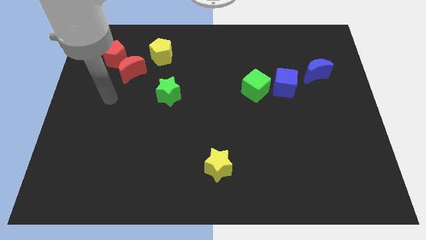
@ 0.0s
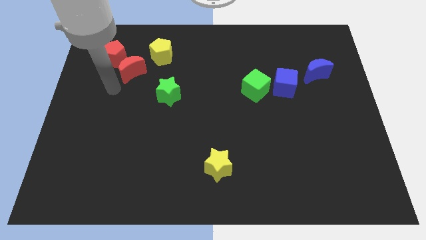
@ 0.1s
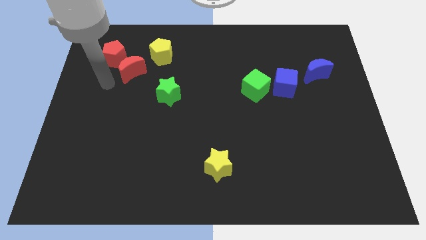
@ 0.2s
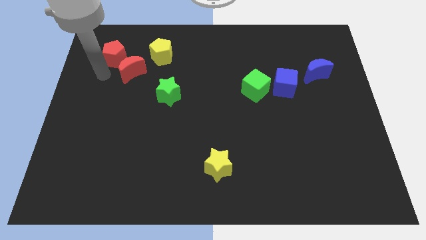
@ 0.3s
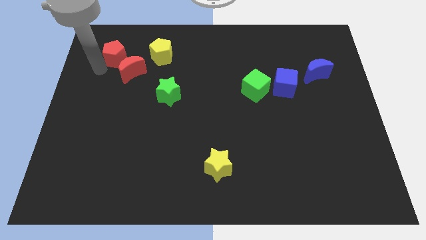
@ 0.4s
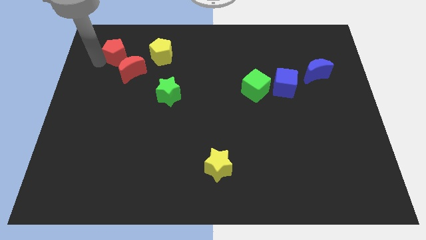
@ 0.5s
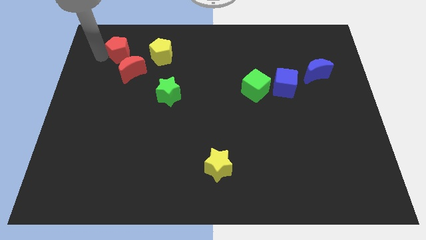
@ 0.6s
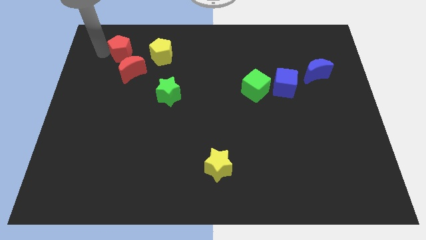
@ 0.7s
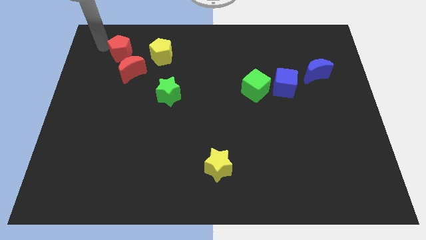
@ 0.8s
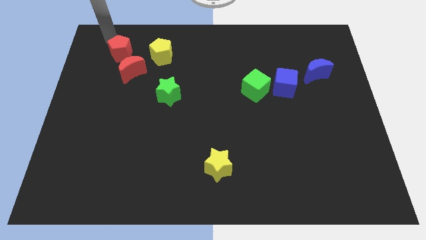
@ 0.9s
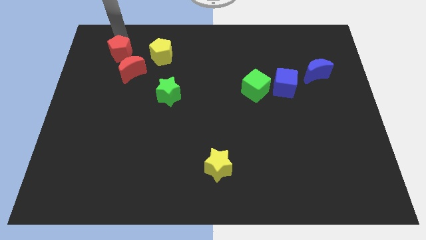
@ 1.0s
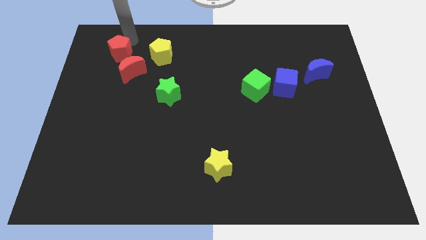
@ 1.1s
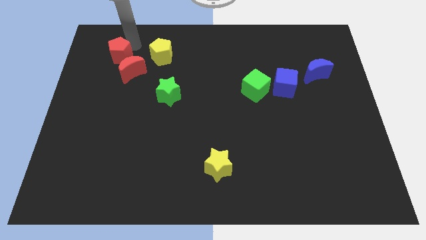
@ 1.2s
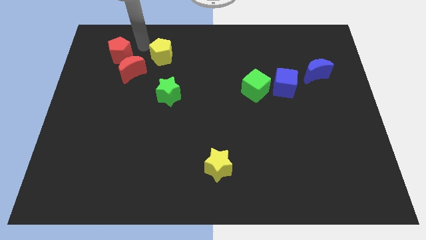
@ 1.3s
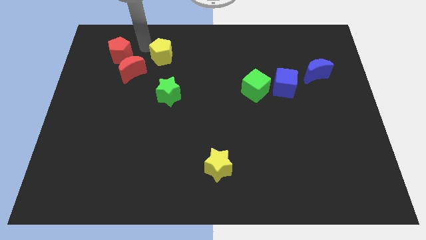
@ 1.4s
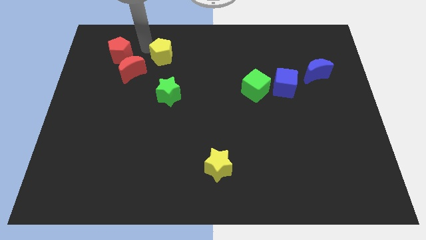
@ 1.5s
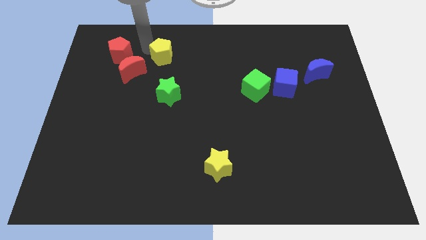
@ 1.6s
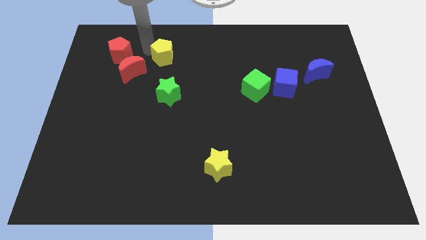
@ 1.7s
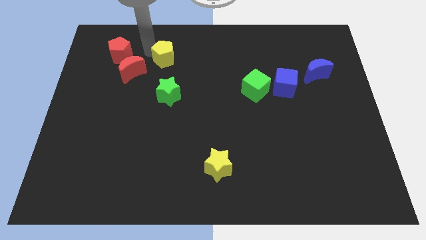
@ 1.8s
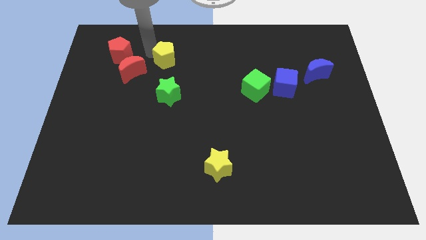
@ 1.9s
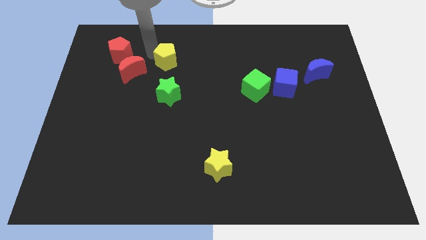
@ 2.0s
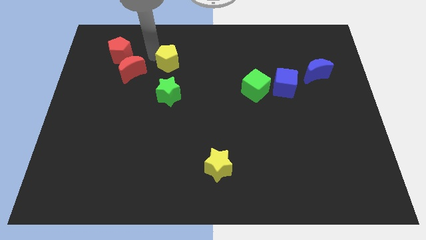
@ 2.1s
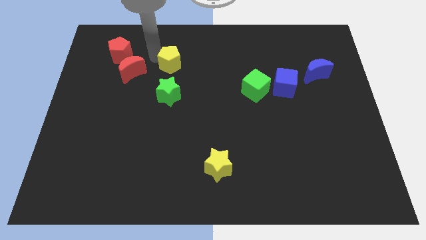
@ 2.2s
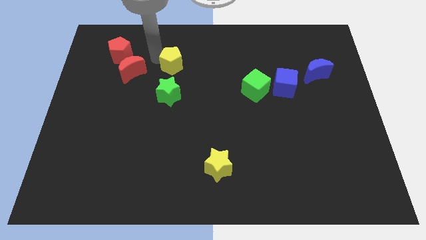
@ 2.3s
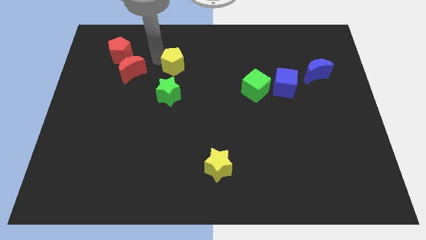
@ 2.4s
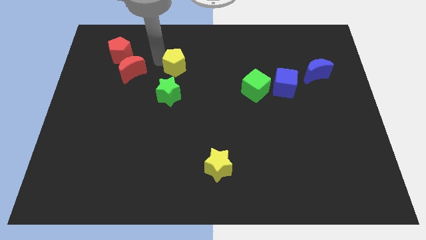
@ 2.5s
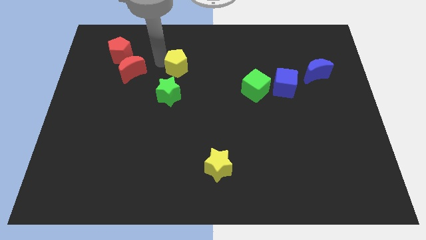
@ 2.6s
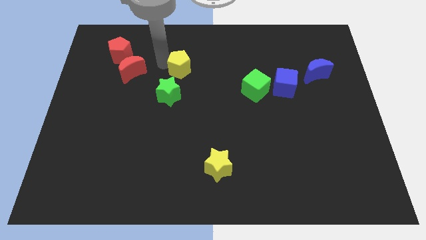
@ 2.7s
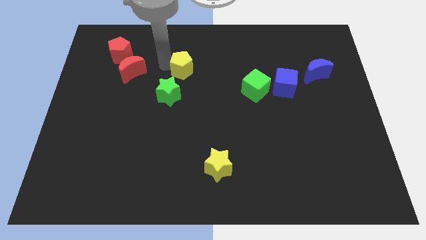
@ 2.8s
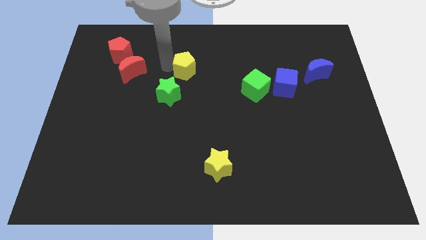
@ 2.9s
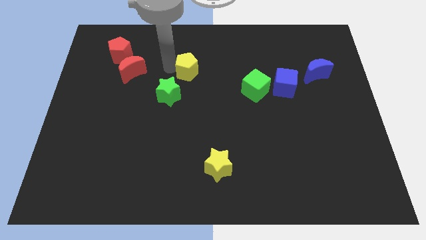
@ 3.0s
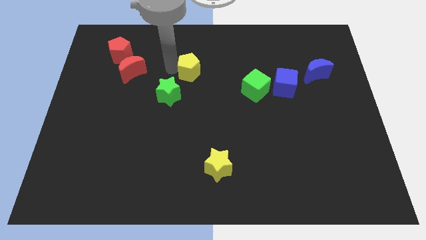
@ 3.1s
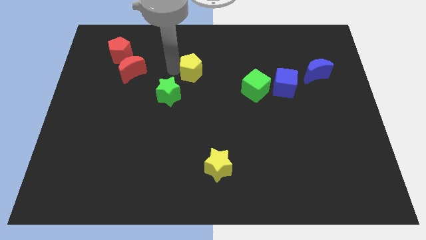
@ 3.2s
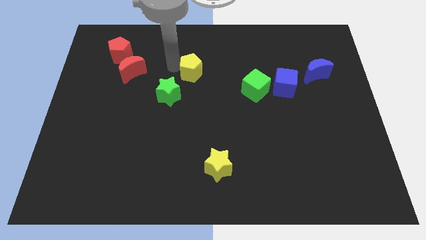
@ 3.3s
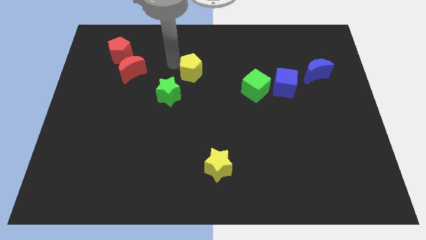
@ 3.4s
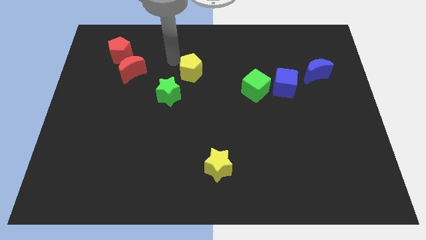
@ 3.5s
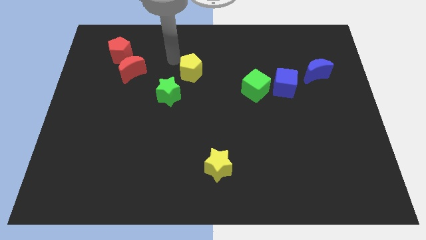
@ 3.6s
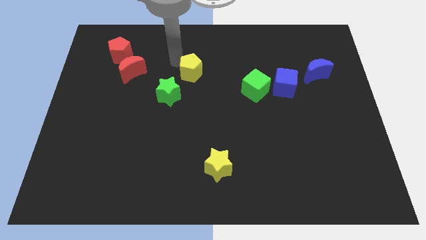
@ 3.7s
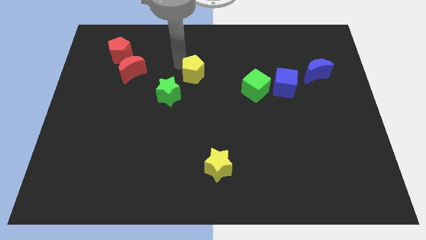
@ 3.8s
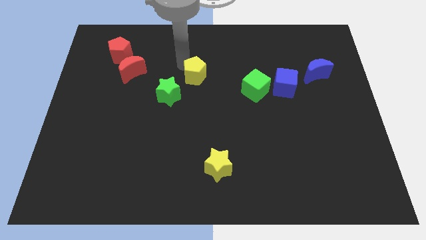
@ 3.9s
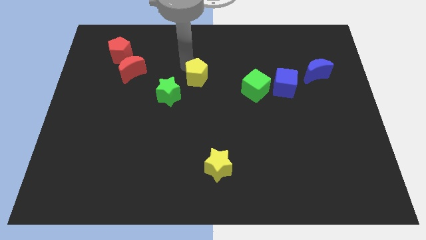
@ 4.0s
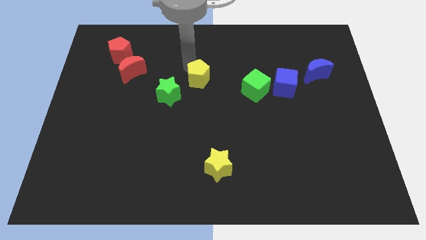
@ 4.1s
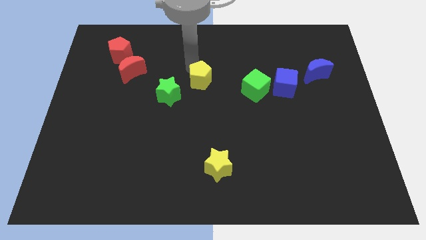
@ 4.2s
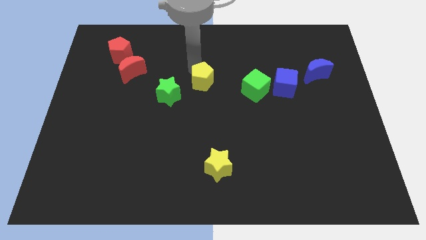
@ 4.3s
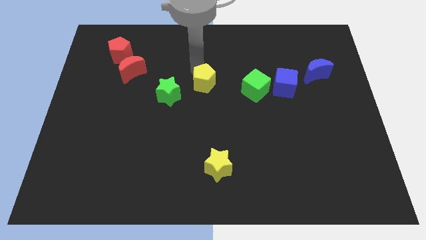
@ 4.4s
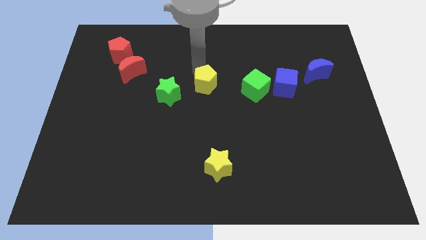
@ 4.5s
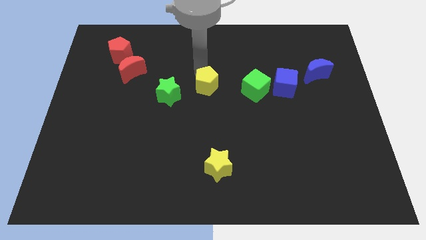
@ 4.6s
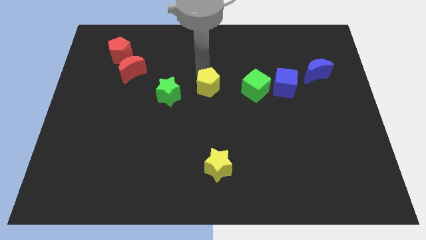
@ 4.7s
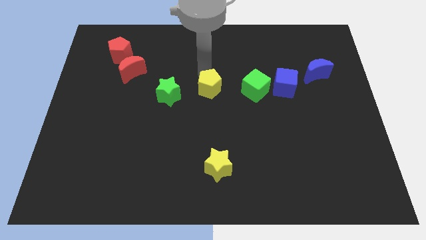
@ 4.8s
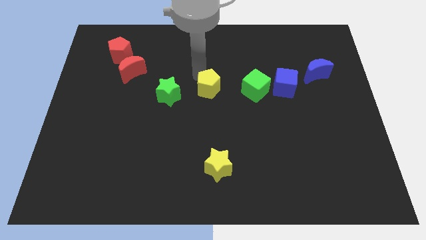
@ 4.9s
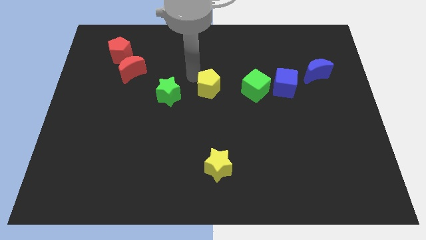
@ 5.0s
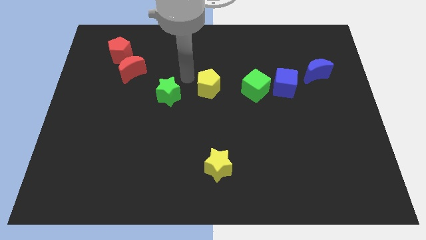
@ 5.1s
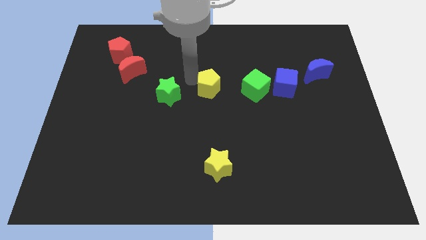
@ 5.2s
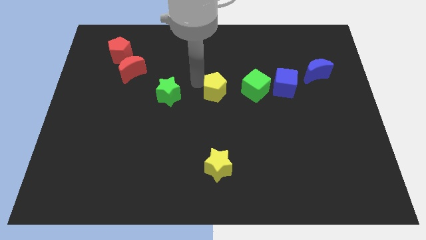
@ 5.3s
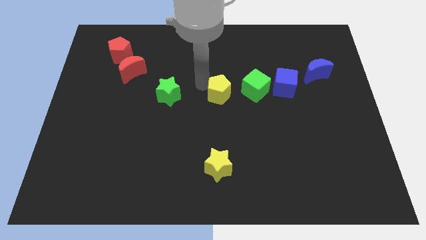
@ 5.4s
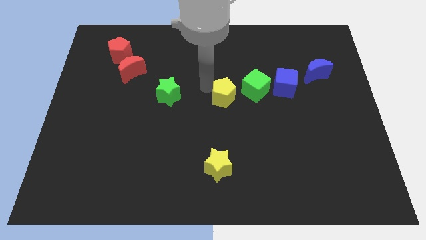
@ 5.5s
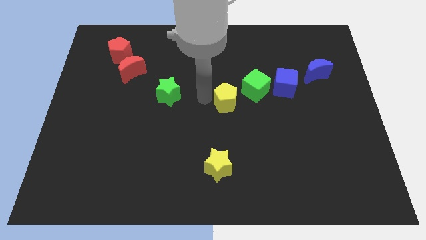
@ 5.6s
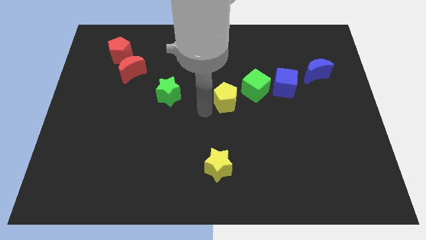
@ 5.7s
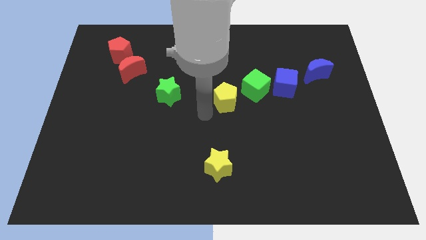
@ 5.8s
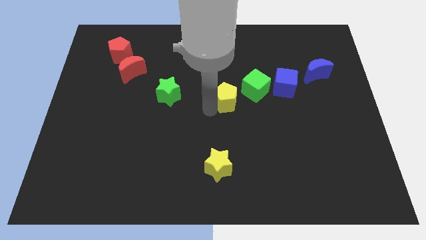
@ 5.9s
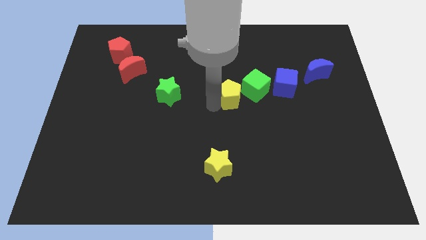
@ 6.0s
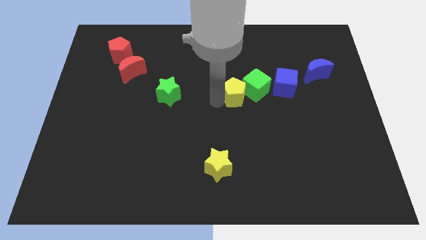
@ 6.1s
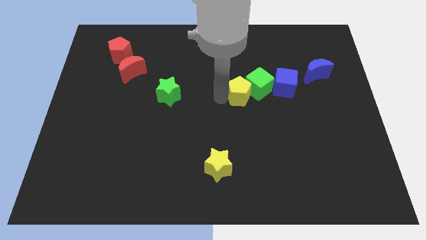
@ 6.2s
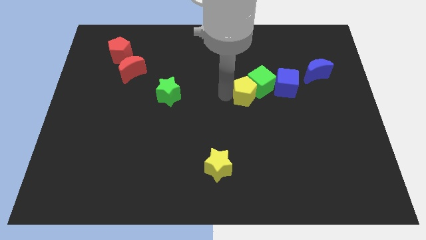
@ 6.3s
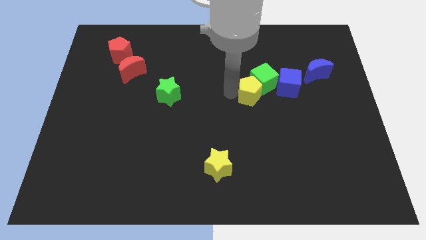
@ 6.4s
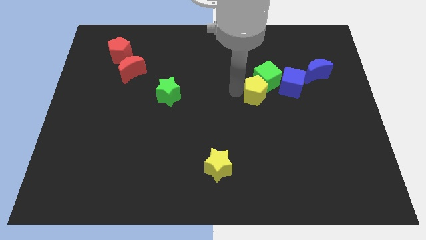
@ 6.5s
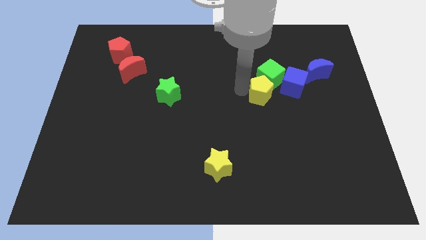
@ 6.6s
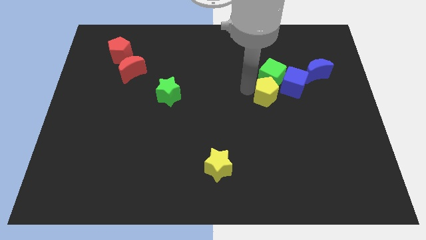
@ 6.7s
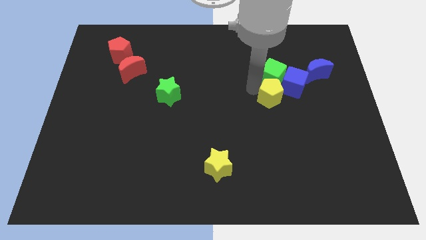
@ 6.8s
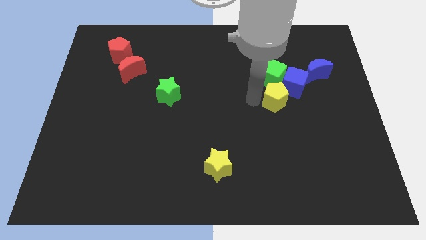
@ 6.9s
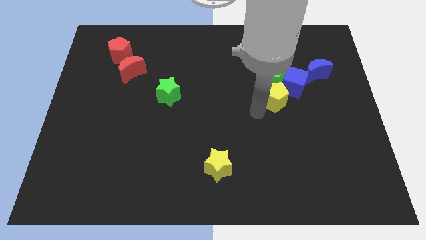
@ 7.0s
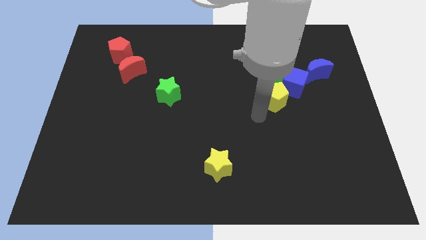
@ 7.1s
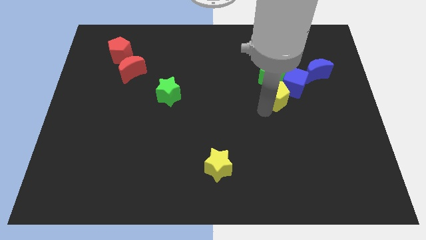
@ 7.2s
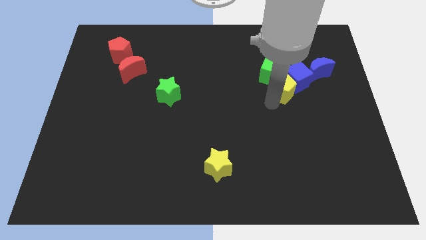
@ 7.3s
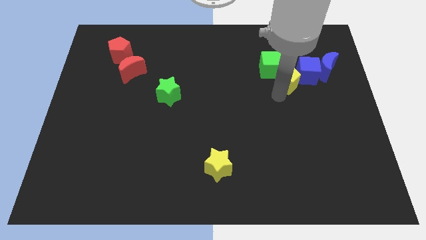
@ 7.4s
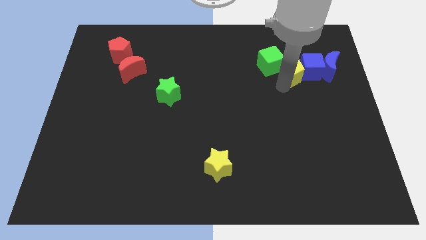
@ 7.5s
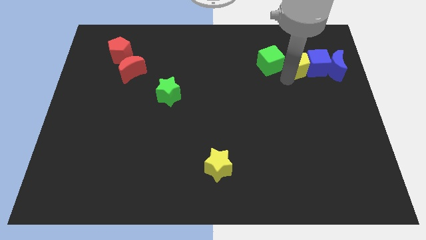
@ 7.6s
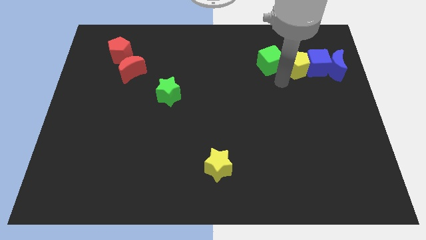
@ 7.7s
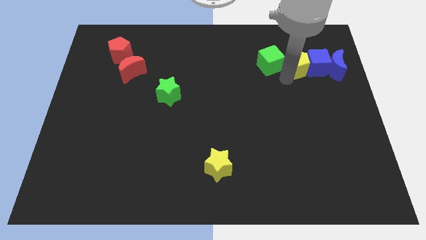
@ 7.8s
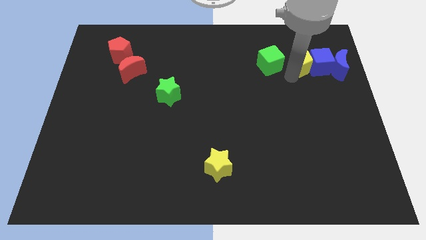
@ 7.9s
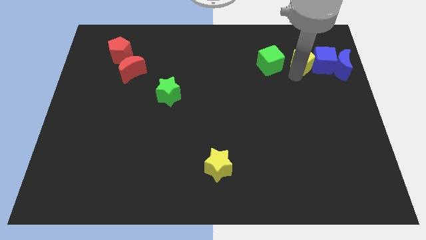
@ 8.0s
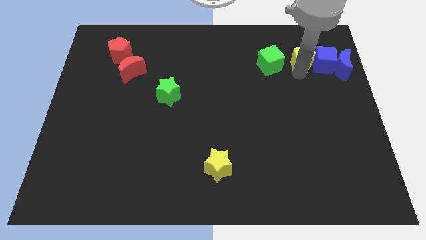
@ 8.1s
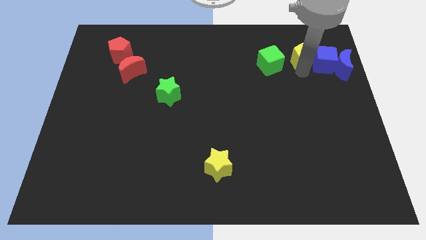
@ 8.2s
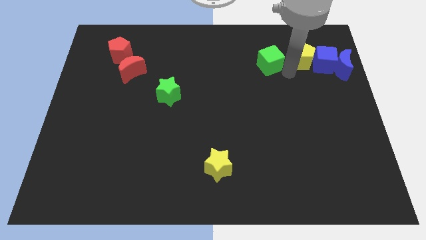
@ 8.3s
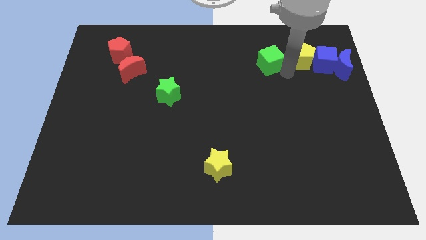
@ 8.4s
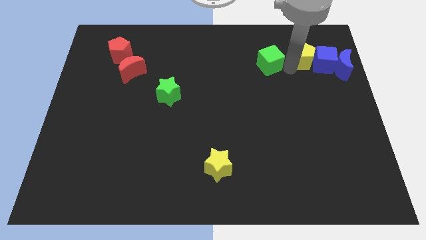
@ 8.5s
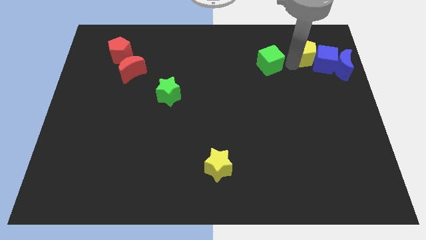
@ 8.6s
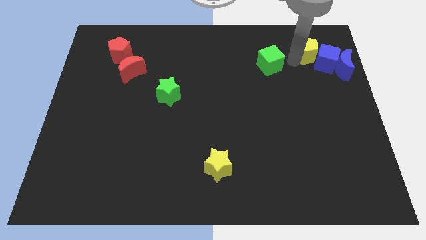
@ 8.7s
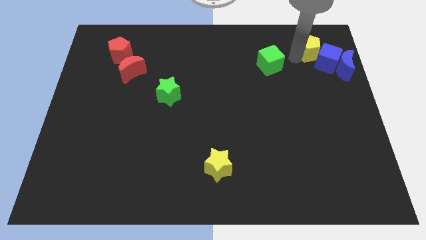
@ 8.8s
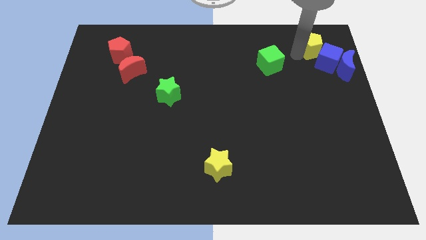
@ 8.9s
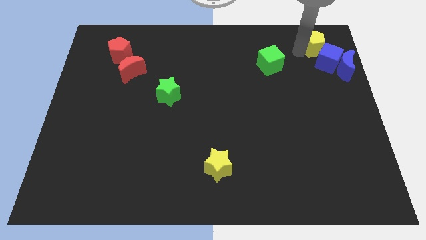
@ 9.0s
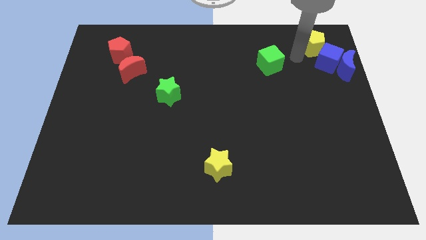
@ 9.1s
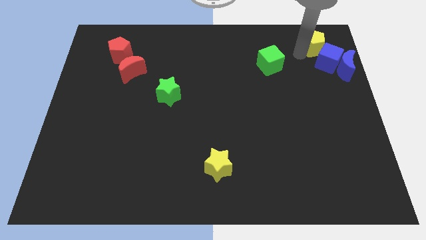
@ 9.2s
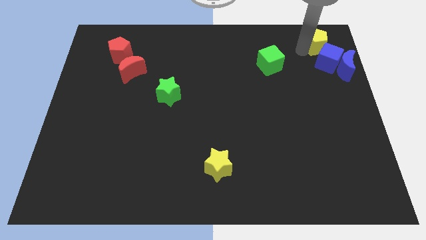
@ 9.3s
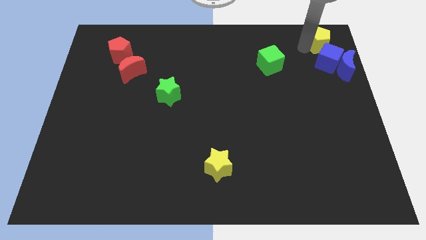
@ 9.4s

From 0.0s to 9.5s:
move the yellow pentagon to the top right
